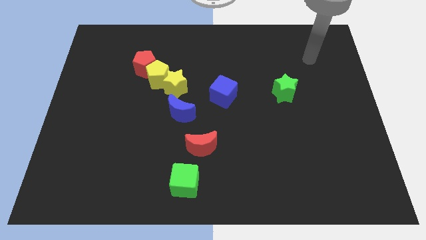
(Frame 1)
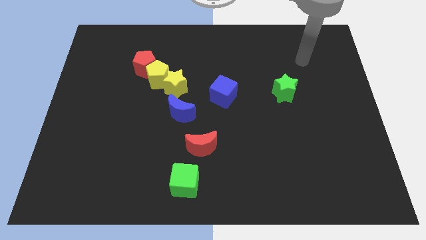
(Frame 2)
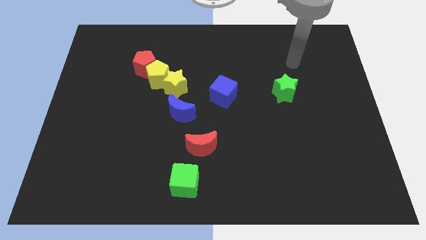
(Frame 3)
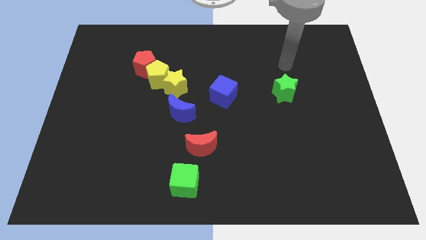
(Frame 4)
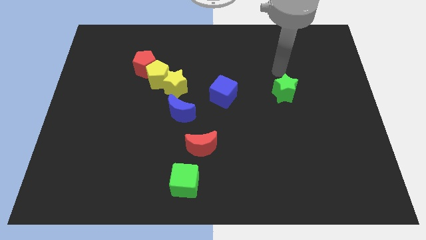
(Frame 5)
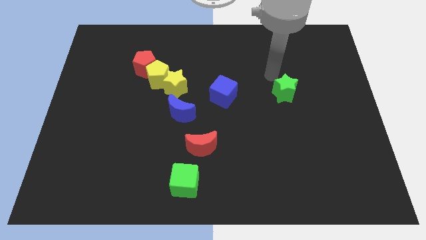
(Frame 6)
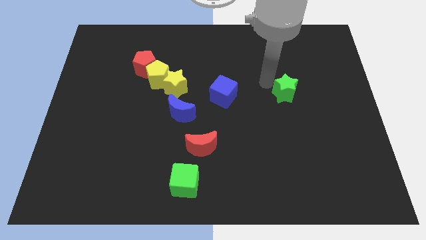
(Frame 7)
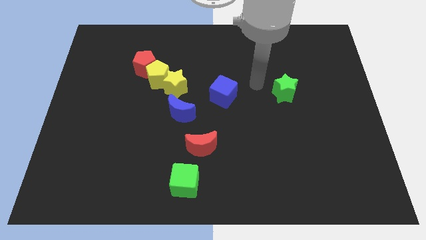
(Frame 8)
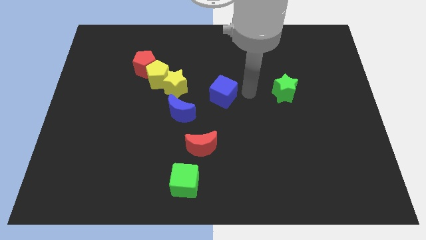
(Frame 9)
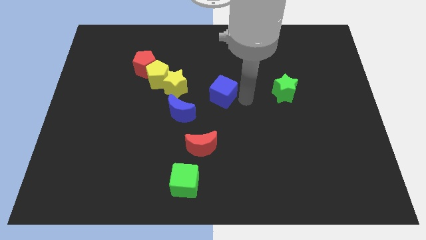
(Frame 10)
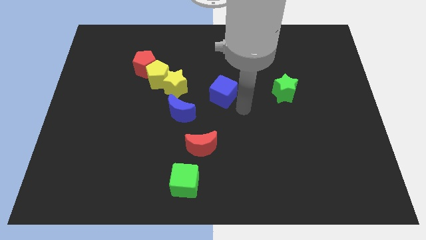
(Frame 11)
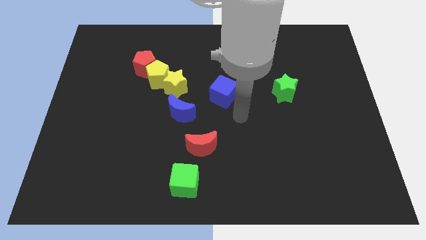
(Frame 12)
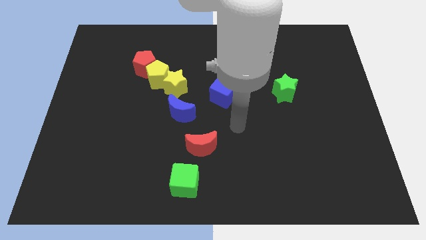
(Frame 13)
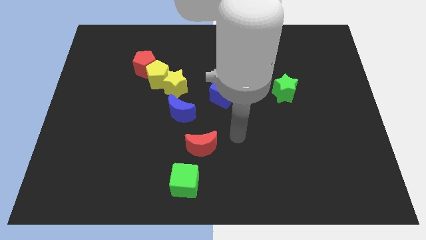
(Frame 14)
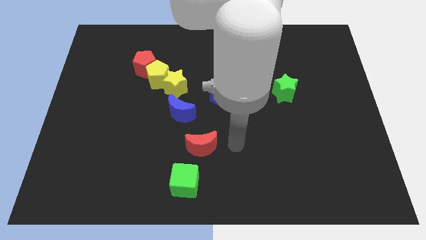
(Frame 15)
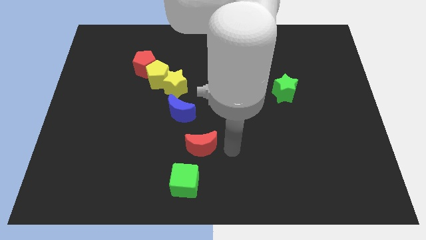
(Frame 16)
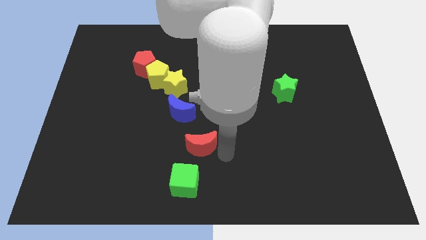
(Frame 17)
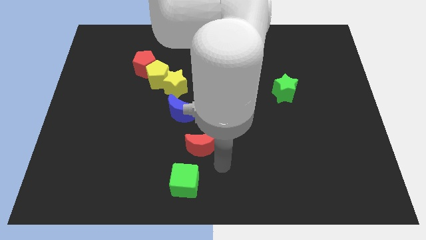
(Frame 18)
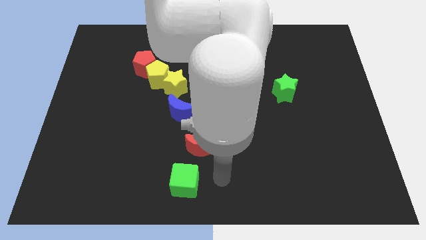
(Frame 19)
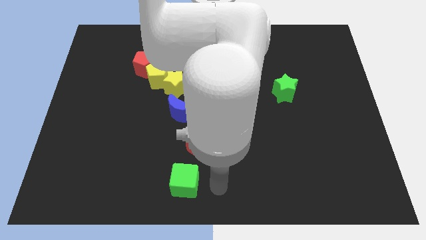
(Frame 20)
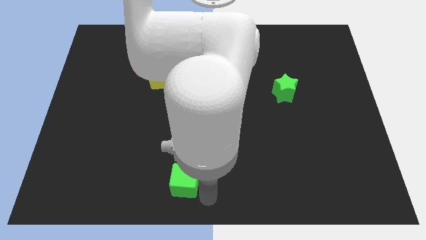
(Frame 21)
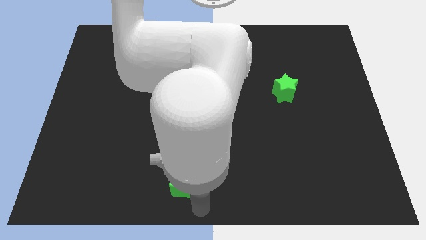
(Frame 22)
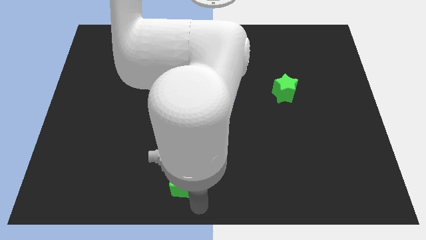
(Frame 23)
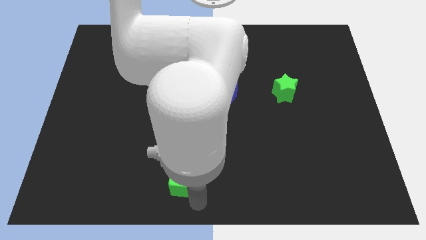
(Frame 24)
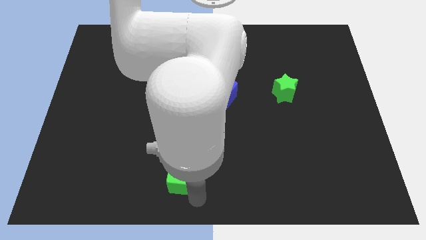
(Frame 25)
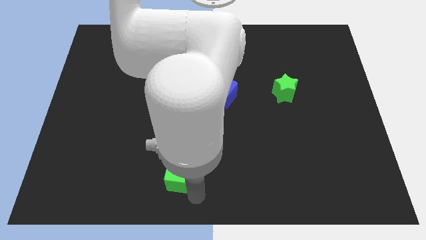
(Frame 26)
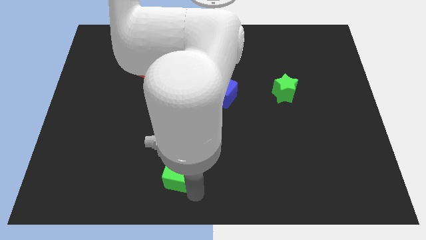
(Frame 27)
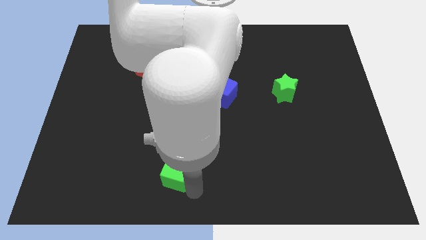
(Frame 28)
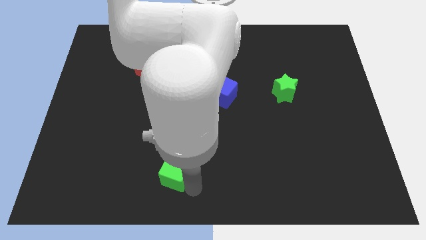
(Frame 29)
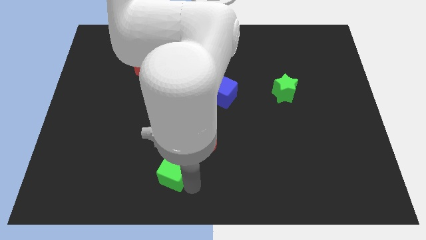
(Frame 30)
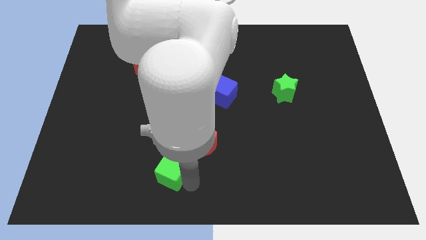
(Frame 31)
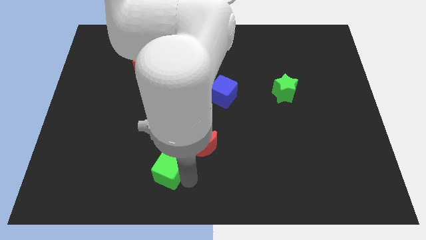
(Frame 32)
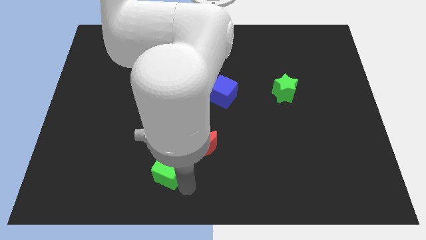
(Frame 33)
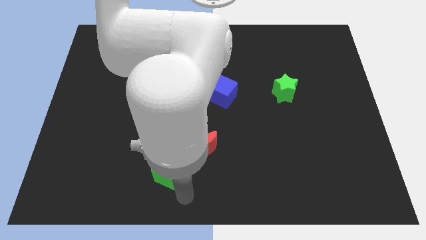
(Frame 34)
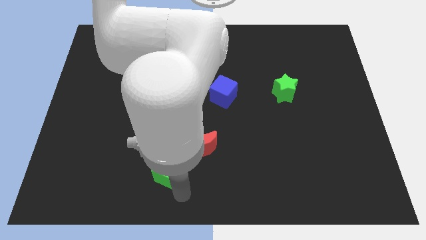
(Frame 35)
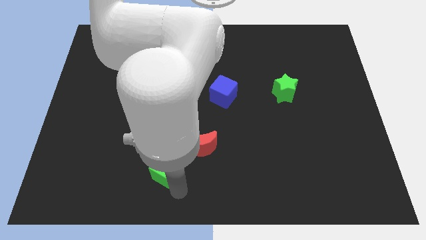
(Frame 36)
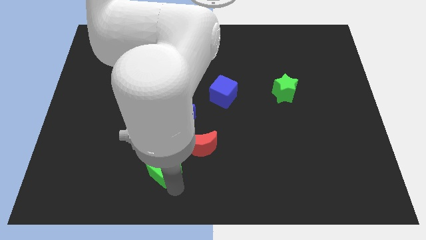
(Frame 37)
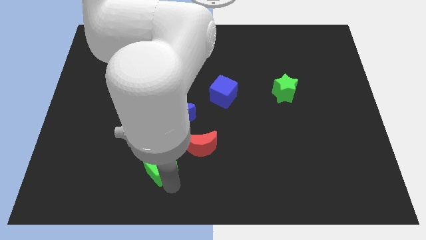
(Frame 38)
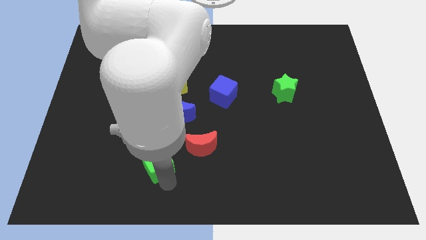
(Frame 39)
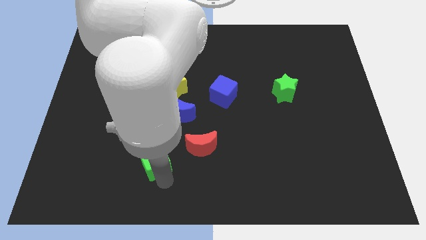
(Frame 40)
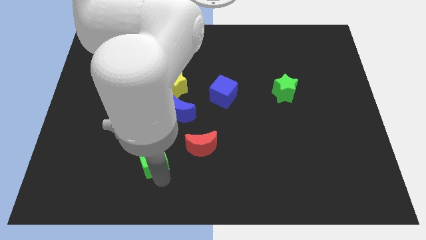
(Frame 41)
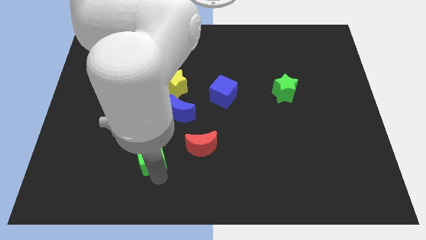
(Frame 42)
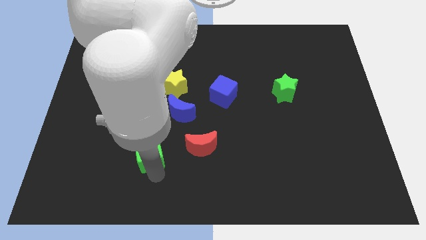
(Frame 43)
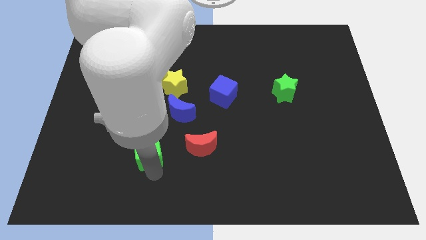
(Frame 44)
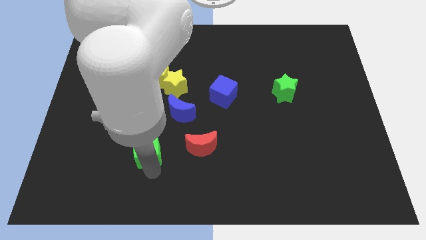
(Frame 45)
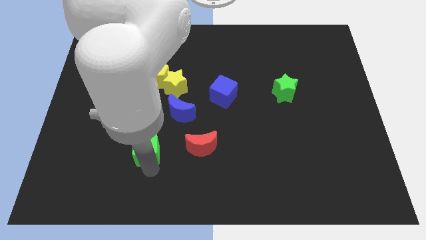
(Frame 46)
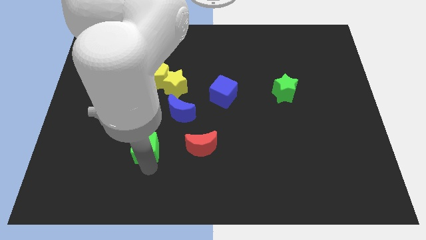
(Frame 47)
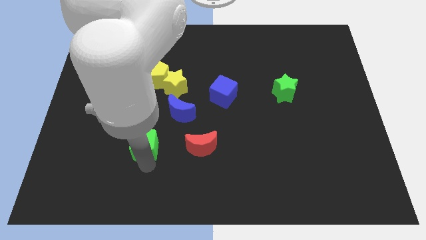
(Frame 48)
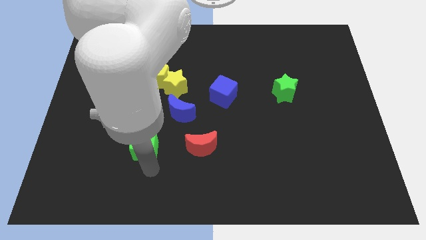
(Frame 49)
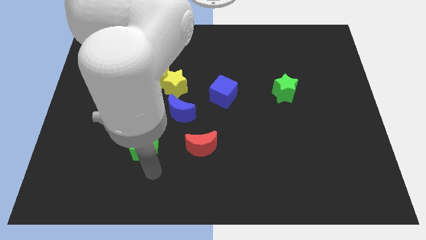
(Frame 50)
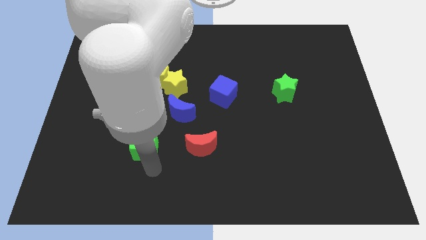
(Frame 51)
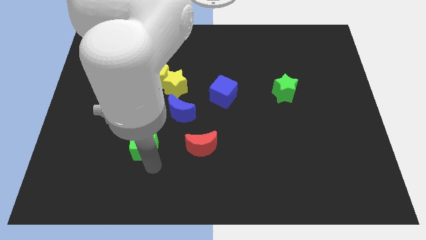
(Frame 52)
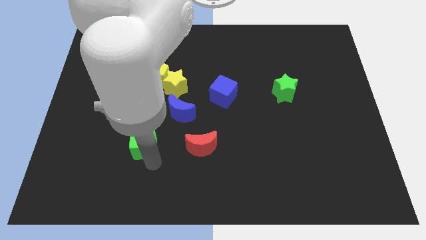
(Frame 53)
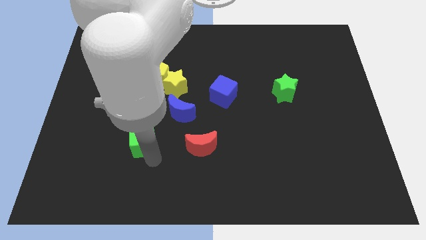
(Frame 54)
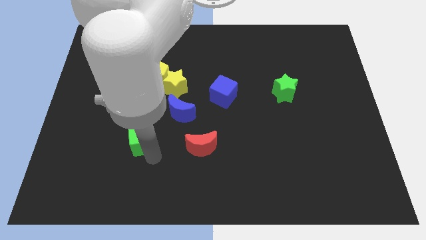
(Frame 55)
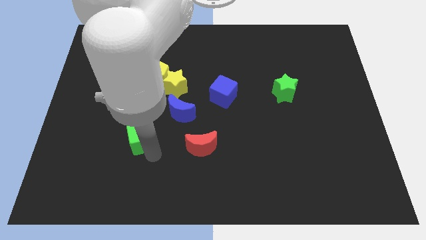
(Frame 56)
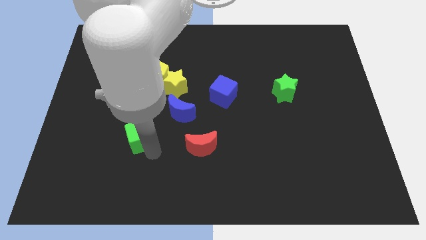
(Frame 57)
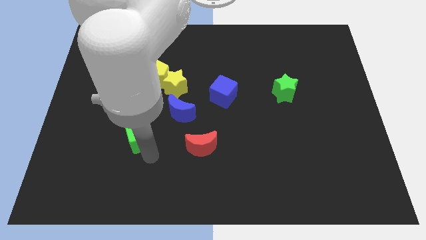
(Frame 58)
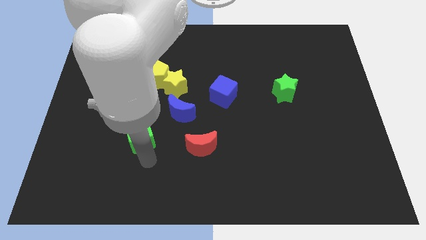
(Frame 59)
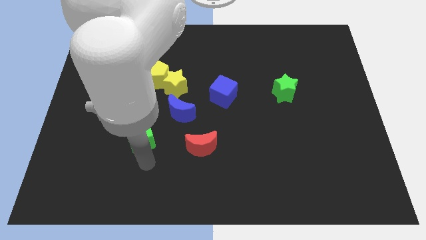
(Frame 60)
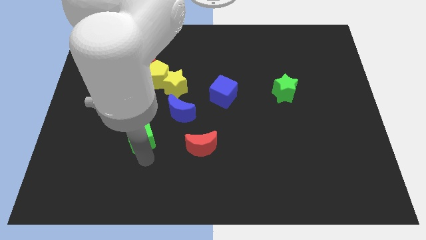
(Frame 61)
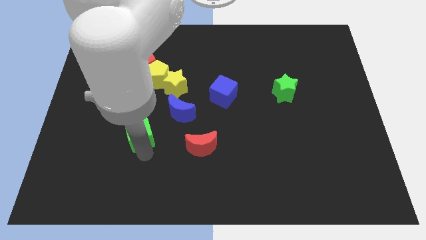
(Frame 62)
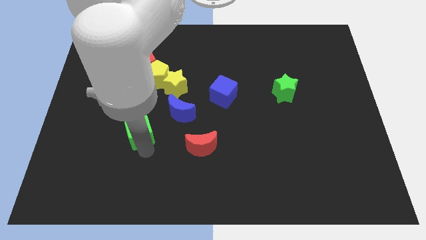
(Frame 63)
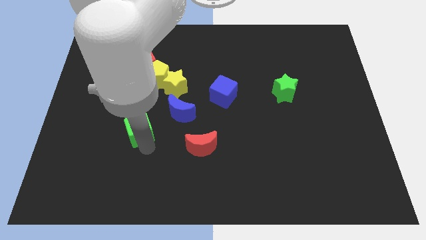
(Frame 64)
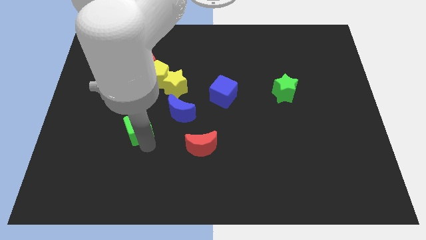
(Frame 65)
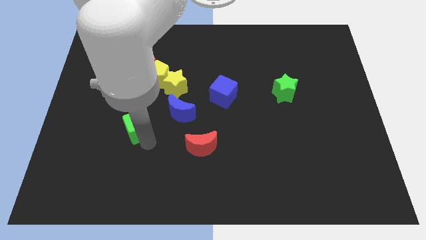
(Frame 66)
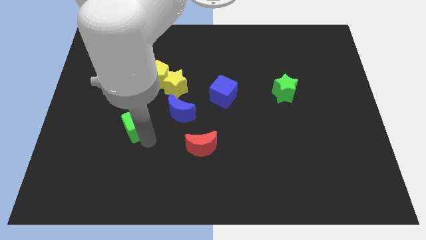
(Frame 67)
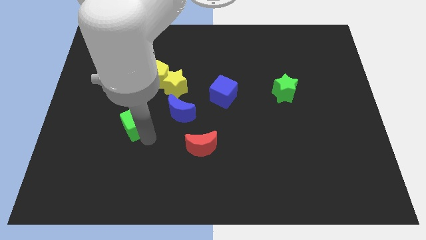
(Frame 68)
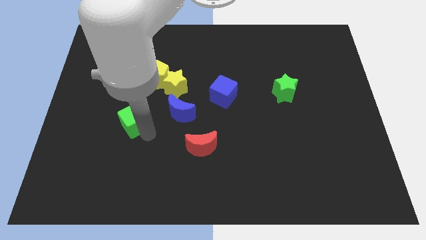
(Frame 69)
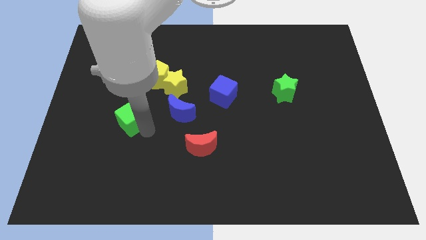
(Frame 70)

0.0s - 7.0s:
push the green cube upwards and to the left diagonally

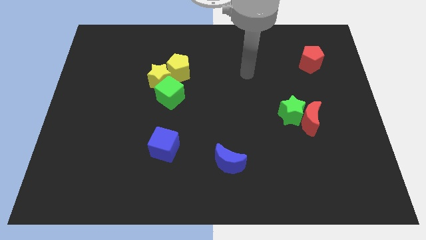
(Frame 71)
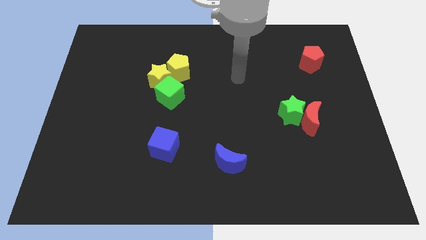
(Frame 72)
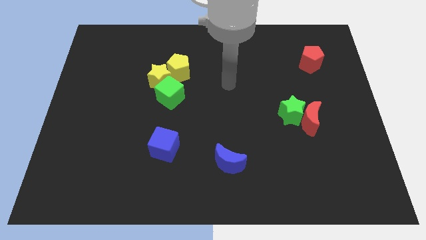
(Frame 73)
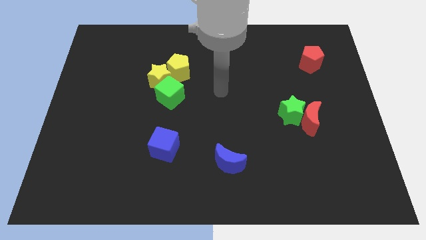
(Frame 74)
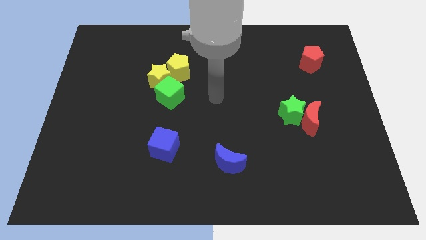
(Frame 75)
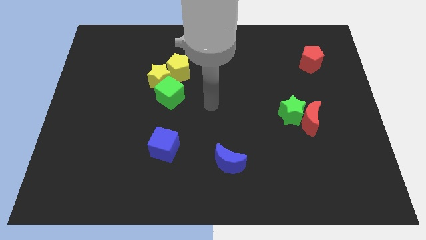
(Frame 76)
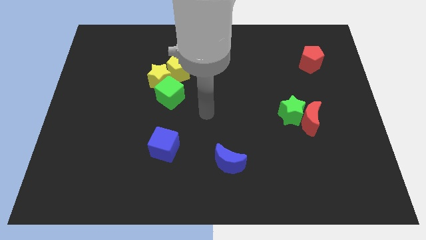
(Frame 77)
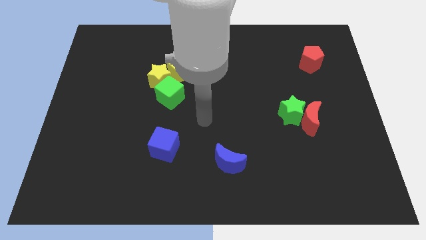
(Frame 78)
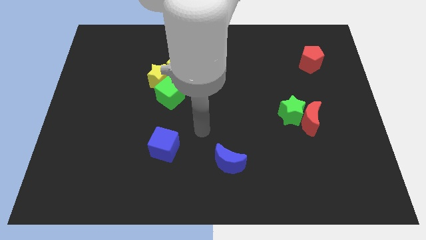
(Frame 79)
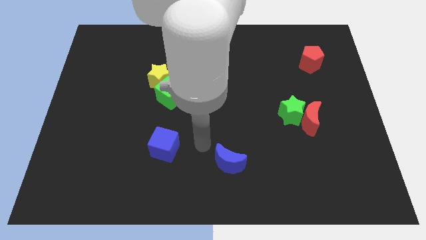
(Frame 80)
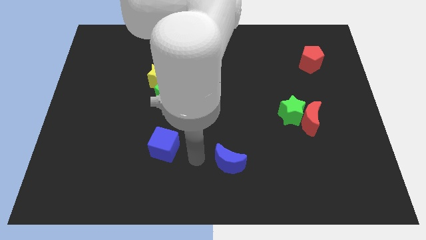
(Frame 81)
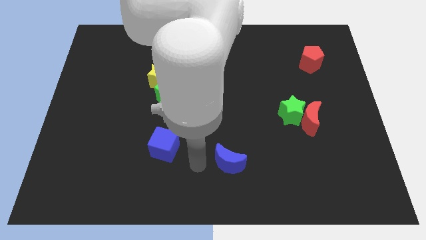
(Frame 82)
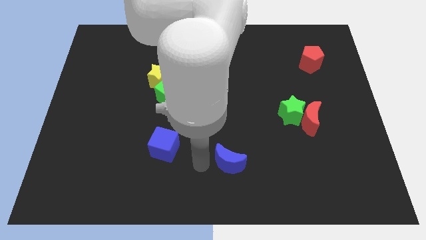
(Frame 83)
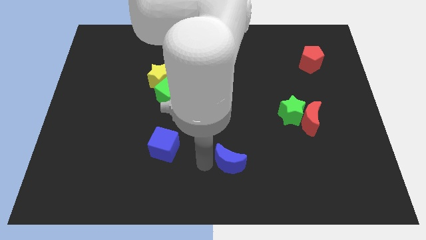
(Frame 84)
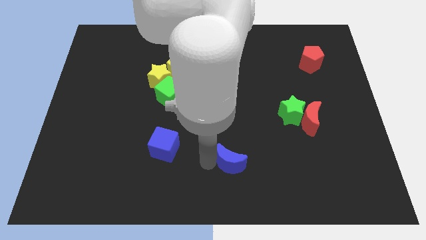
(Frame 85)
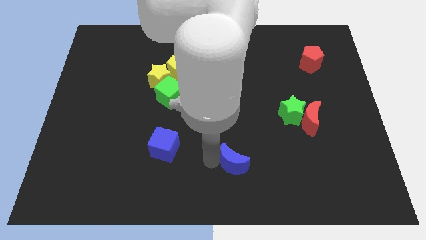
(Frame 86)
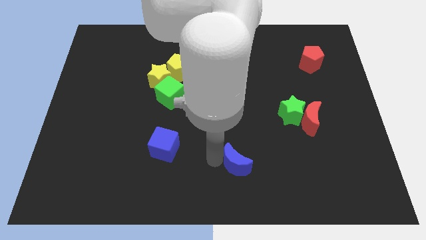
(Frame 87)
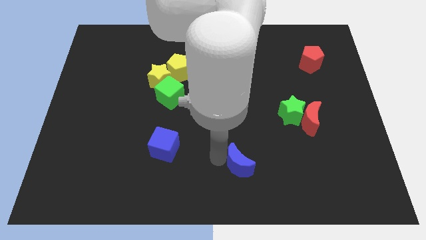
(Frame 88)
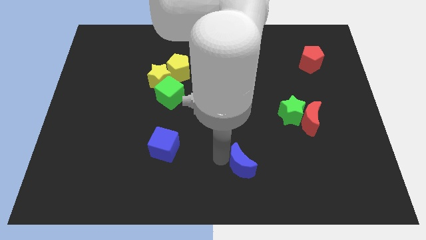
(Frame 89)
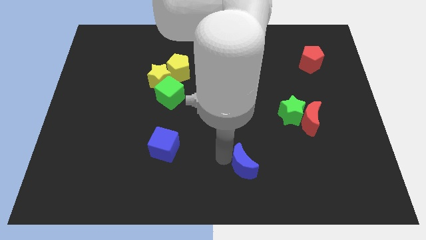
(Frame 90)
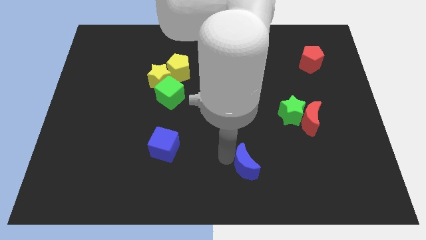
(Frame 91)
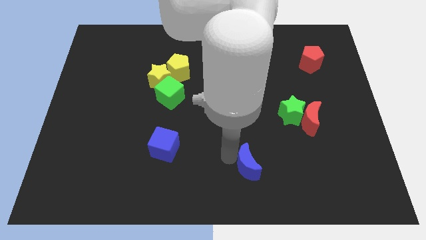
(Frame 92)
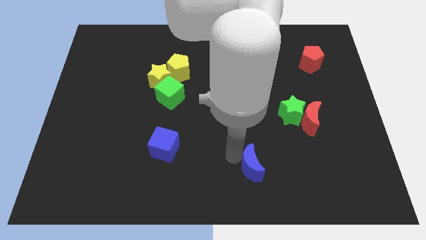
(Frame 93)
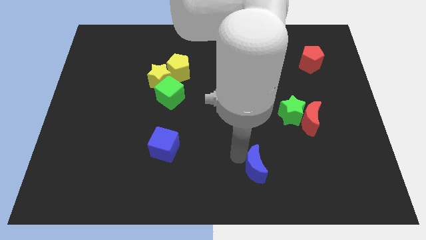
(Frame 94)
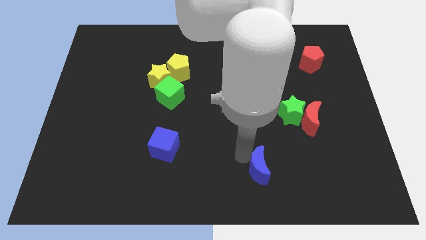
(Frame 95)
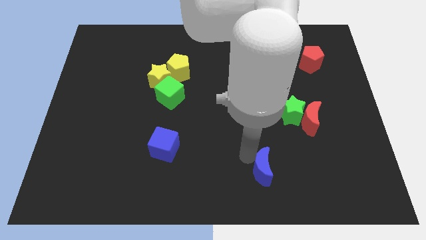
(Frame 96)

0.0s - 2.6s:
slightly move the blue moon to the right
